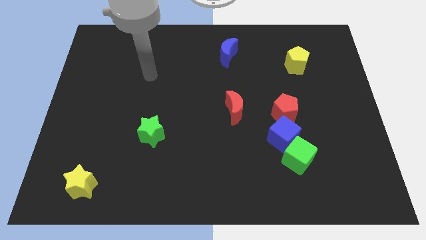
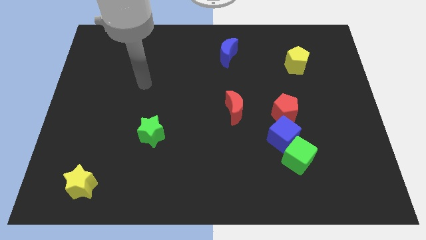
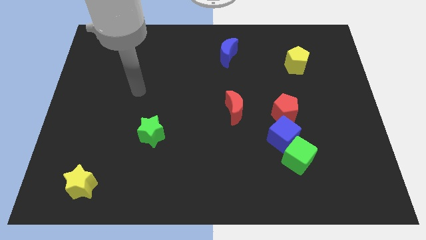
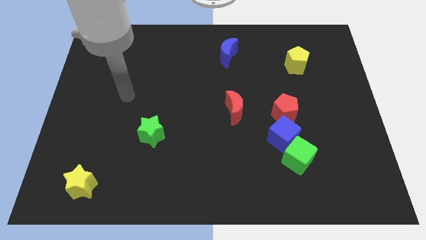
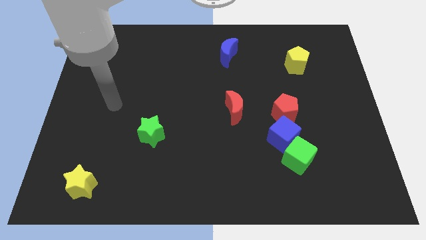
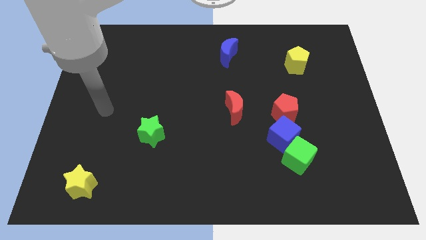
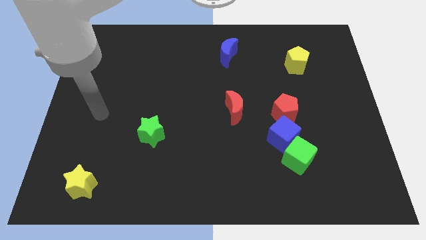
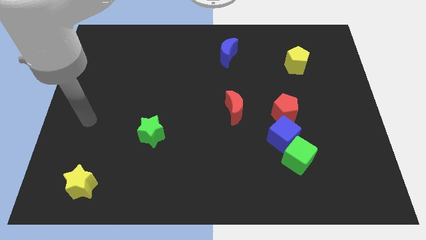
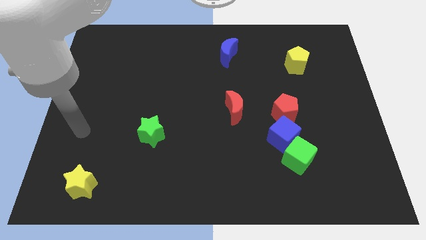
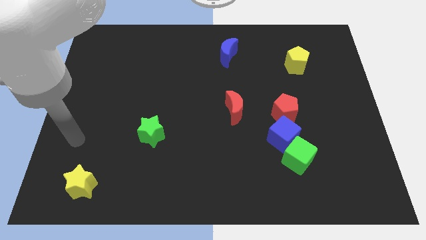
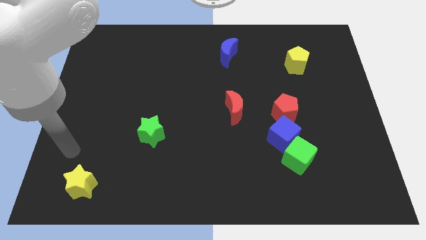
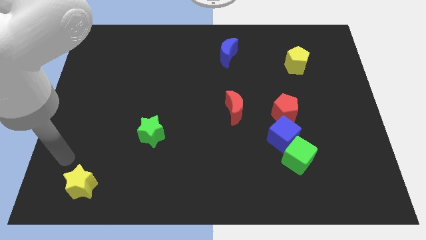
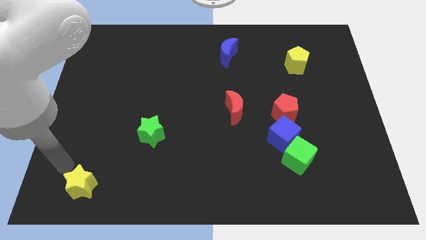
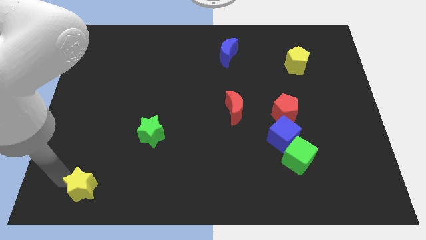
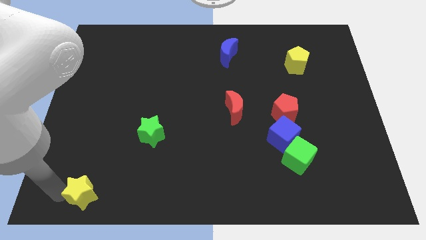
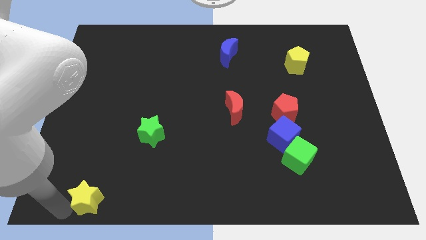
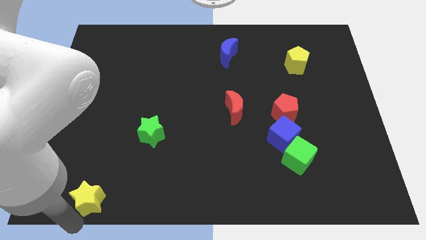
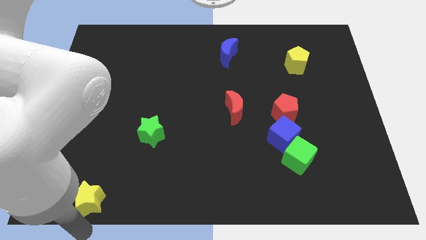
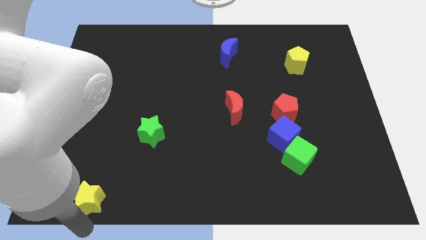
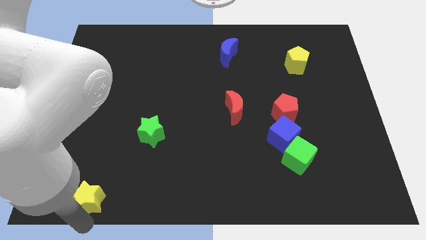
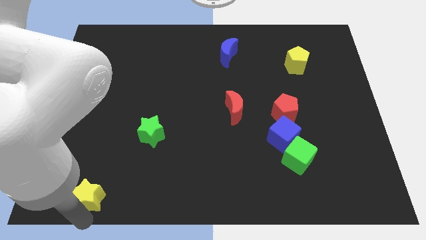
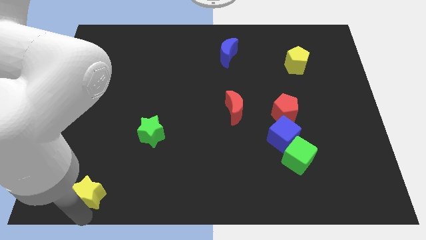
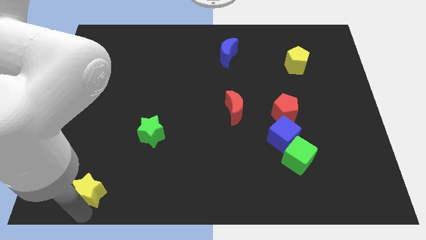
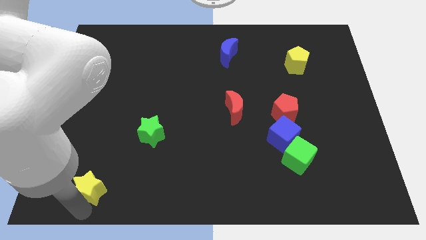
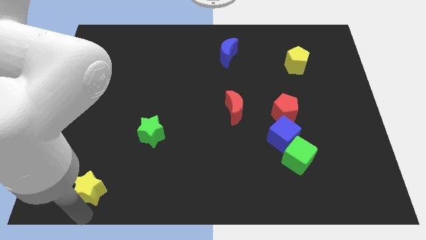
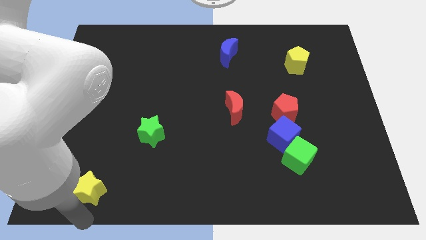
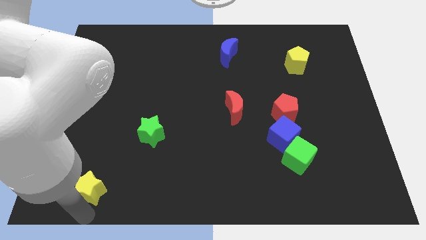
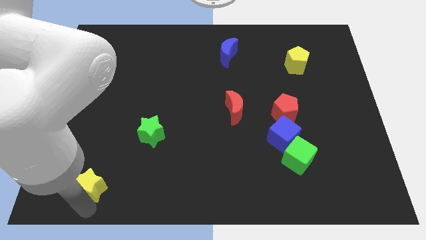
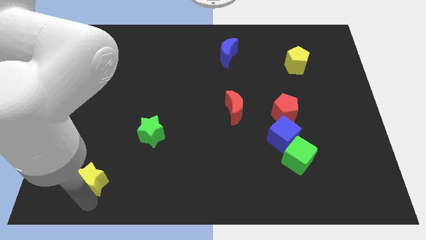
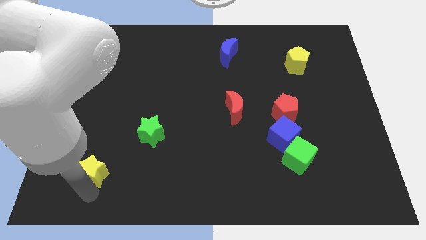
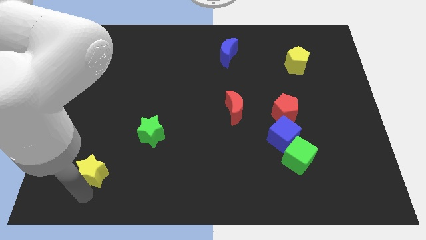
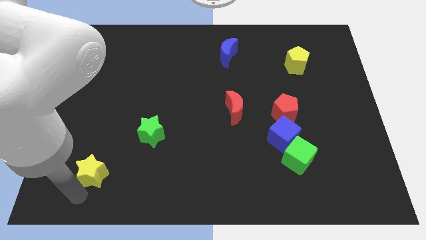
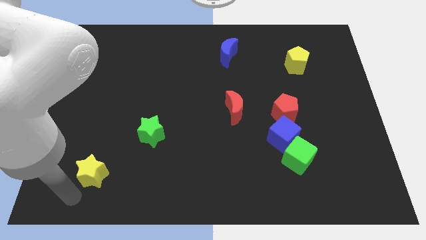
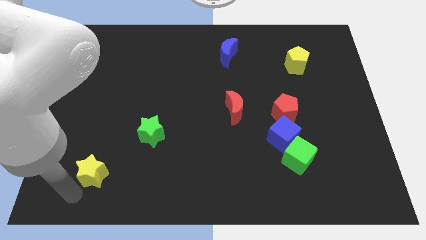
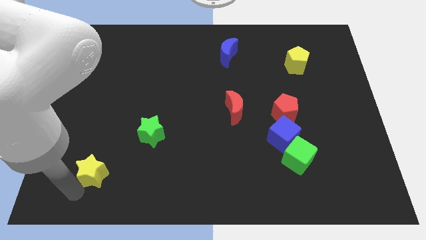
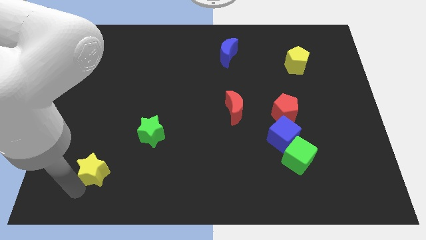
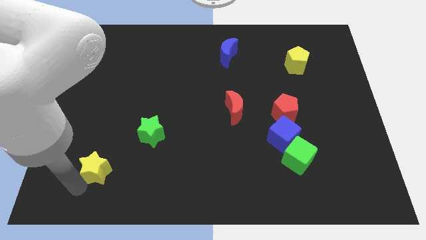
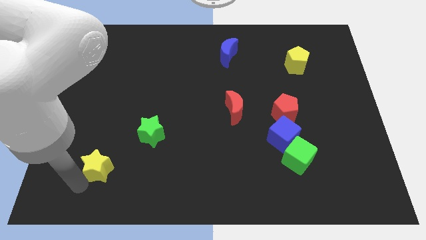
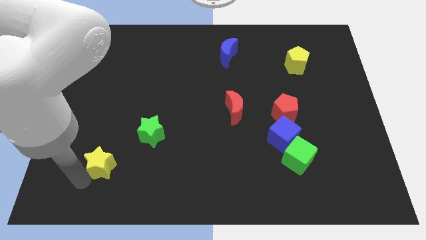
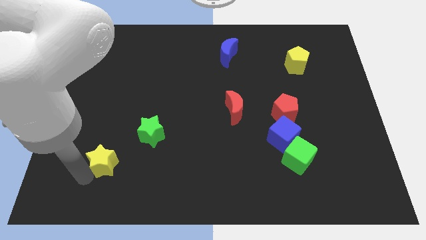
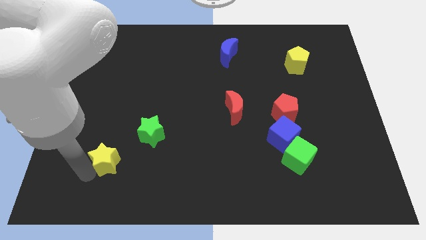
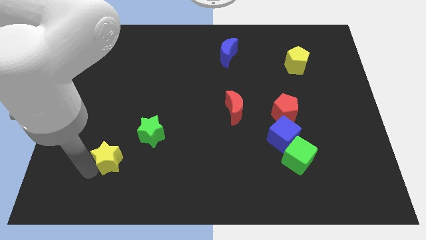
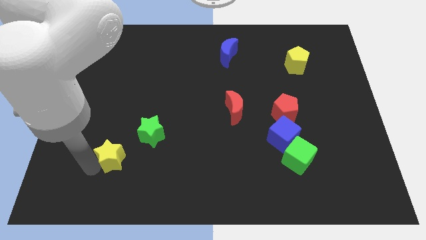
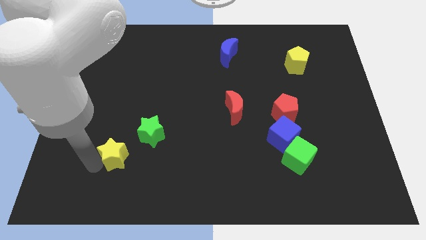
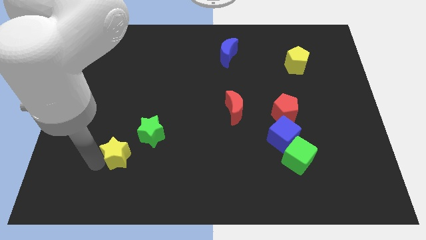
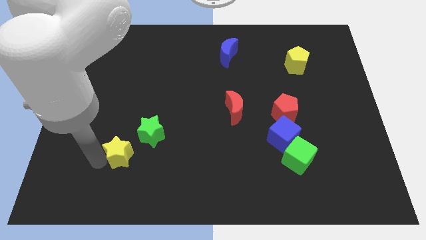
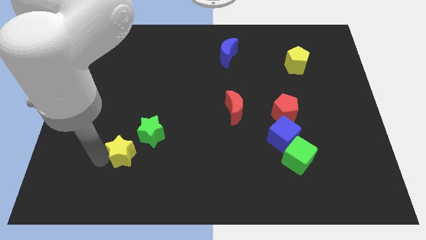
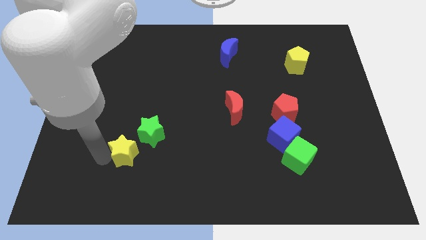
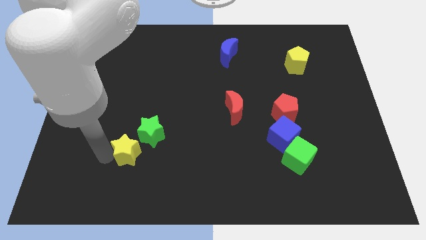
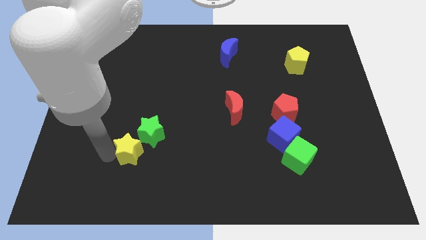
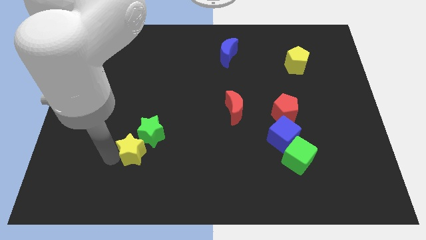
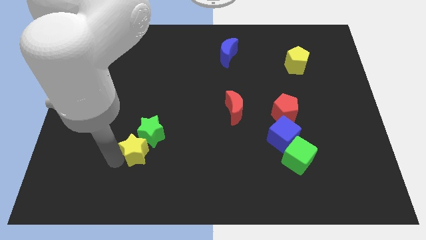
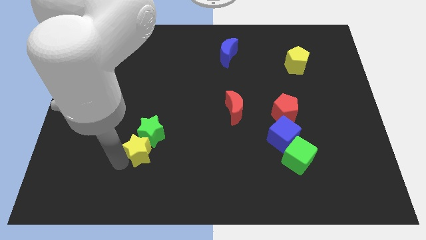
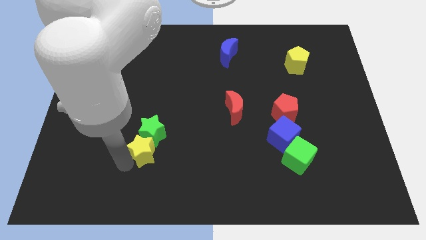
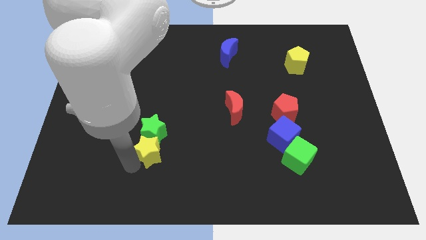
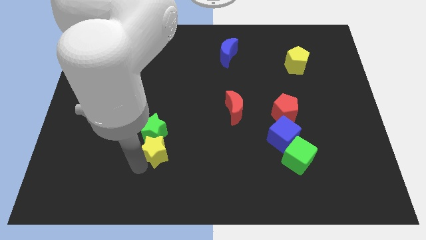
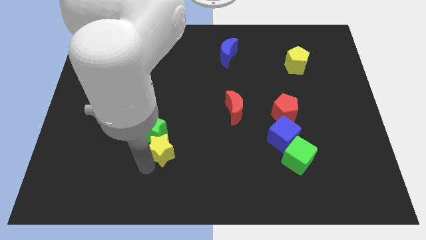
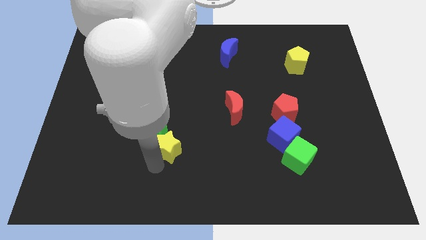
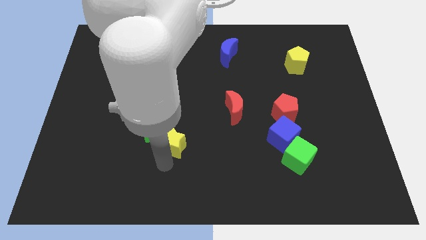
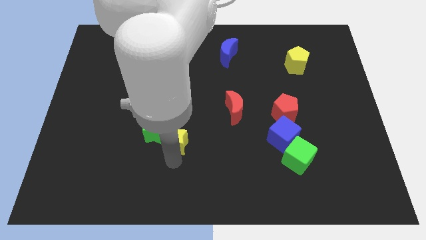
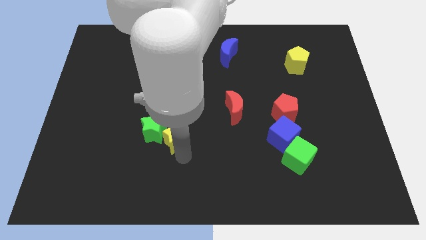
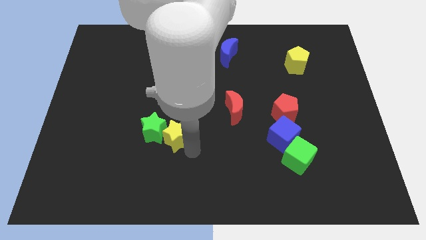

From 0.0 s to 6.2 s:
slide the yellow star upwards and to the right diagonally

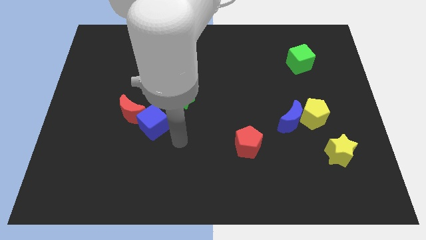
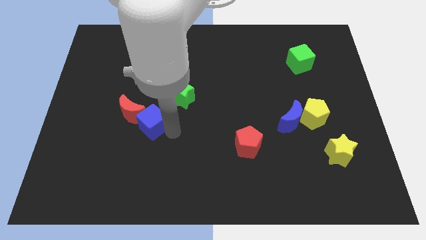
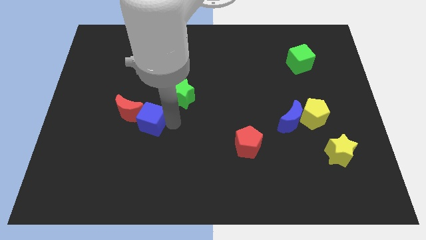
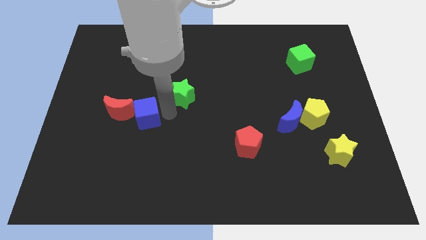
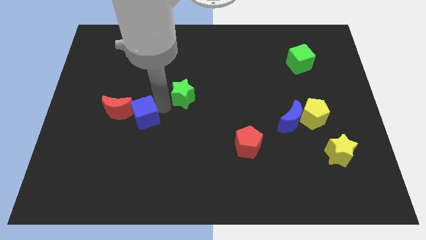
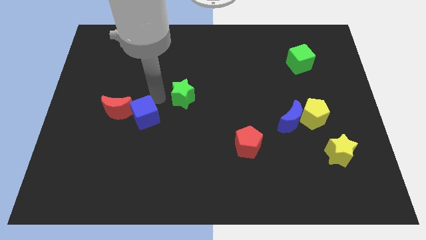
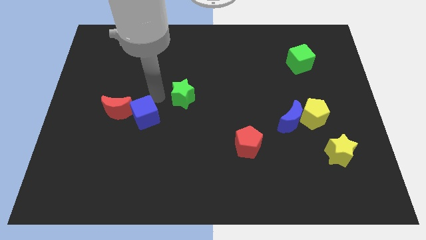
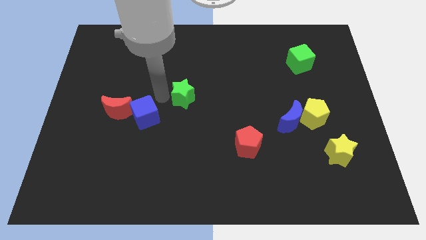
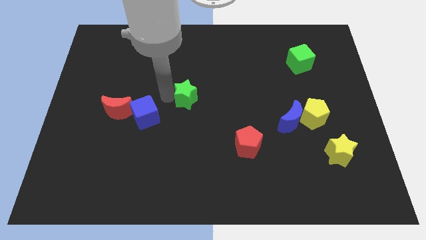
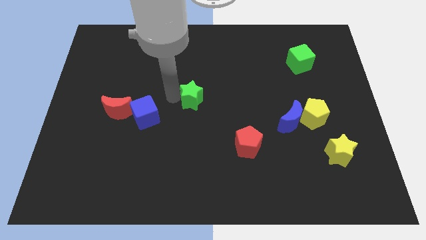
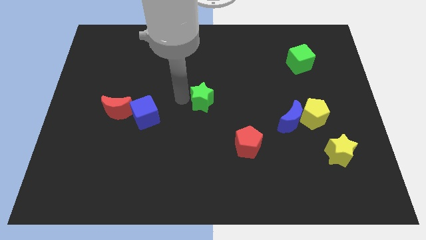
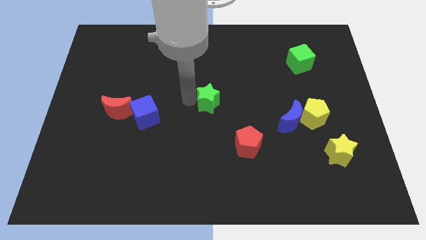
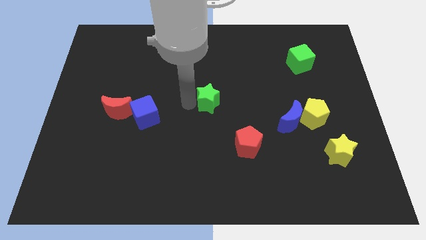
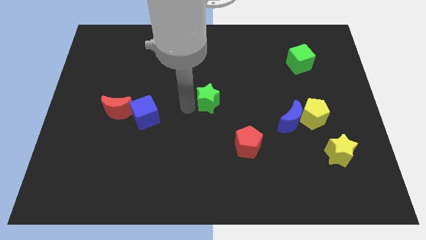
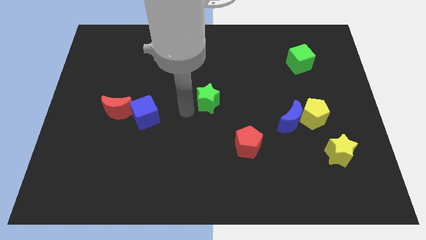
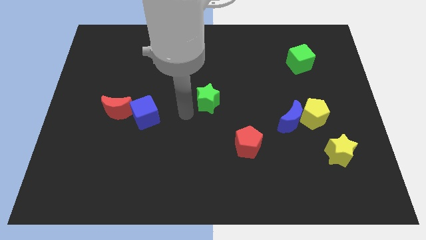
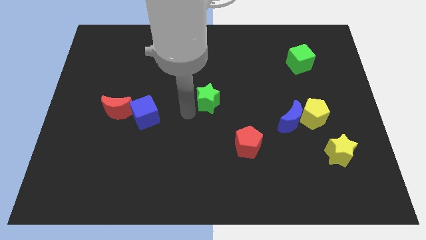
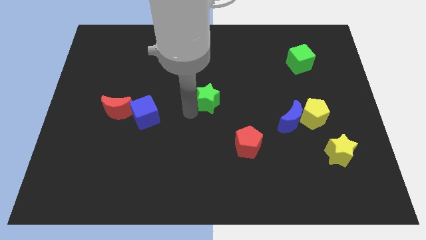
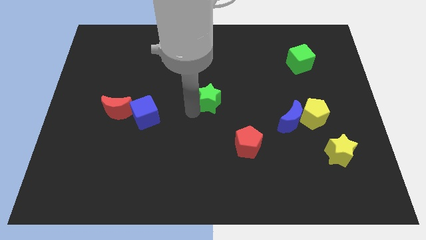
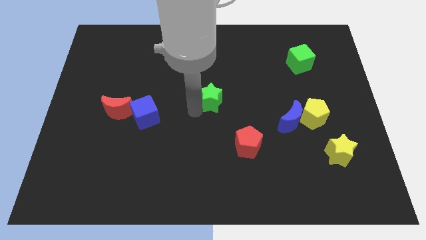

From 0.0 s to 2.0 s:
slightly slide the green star right
